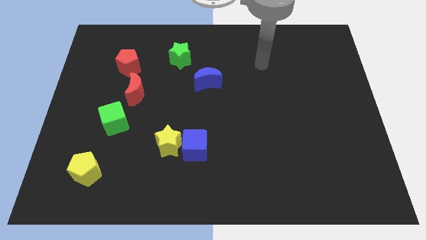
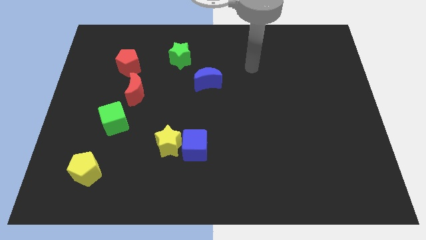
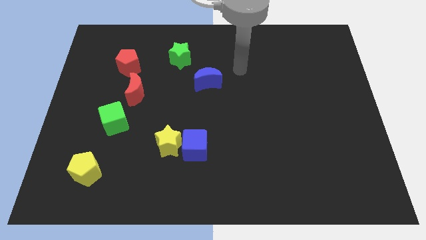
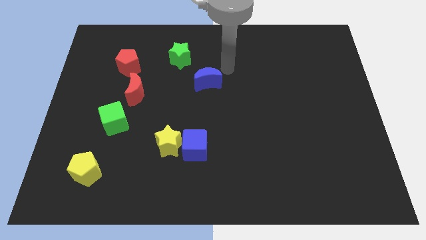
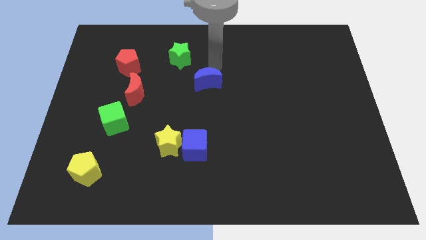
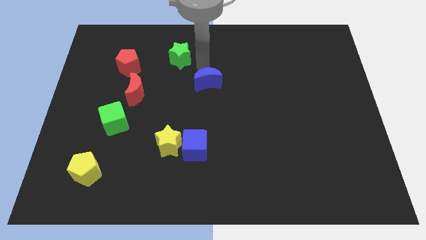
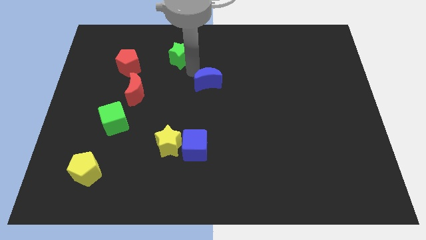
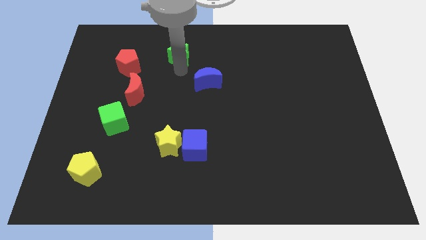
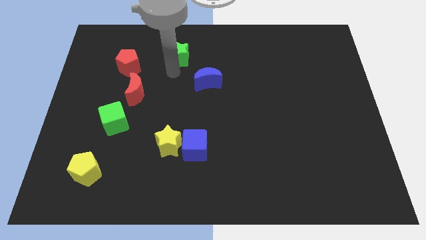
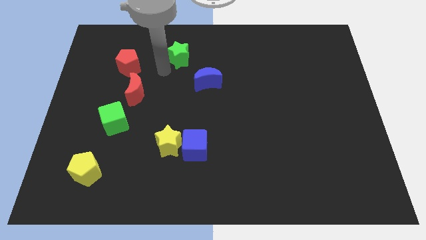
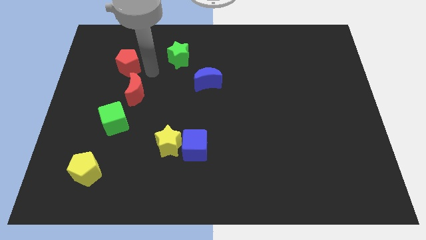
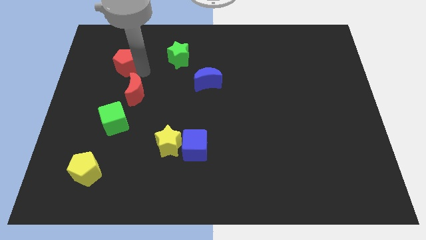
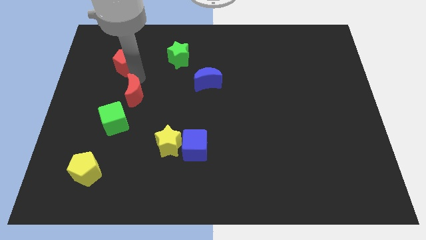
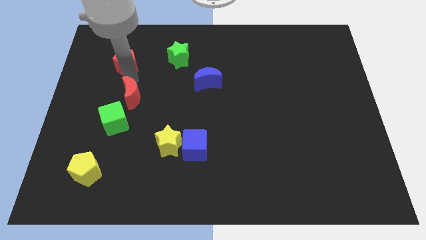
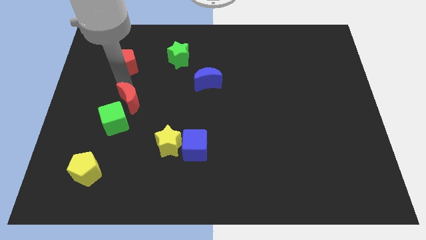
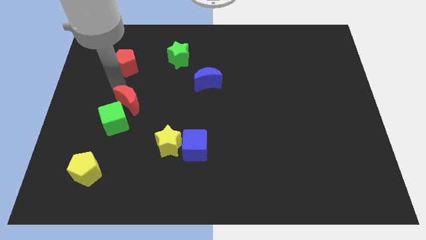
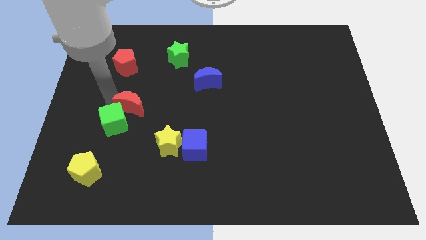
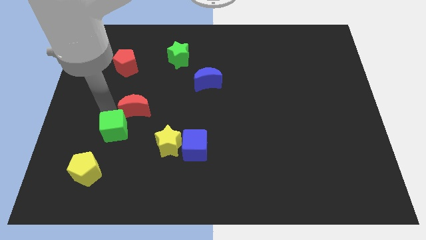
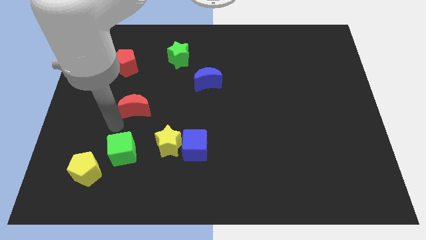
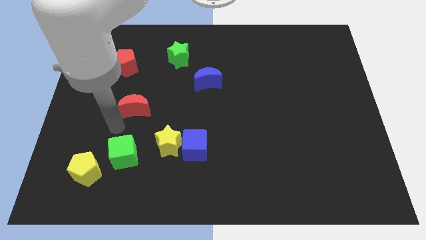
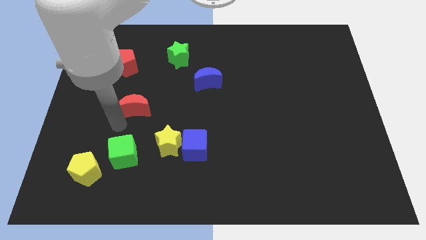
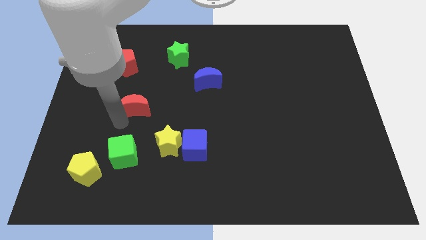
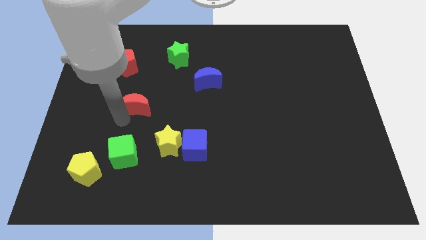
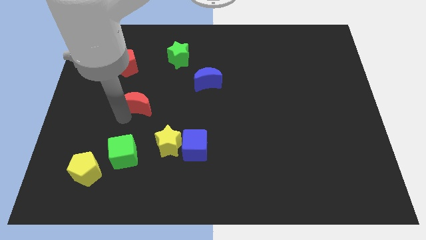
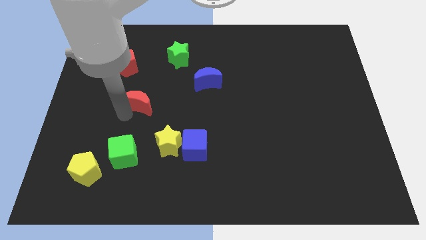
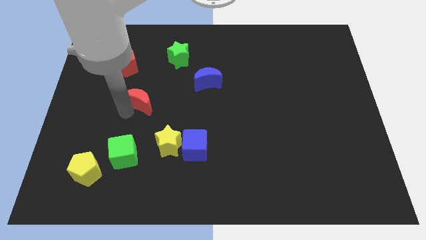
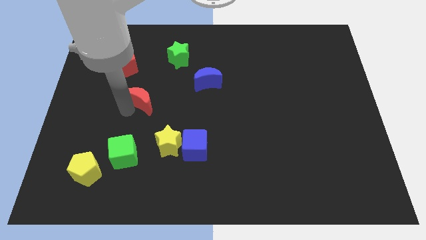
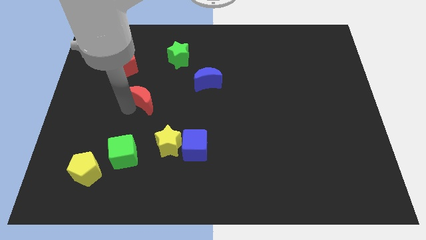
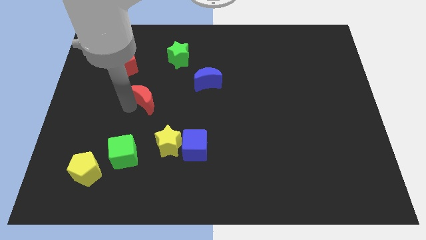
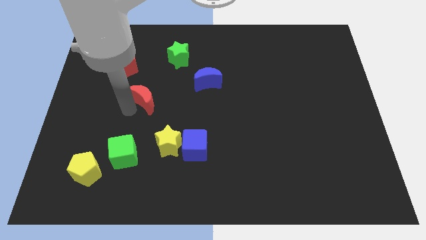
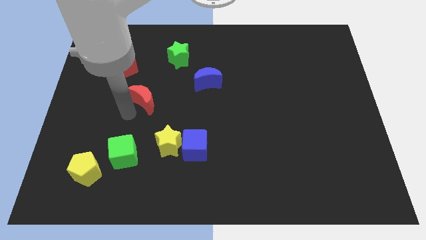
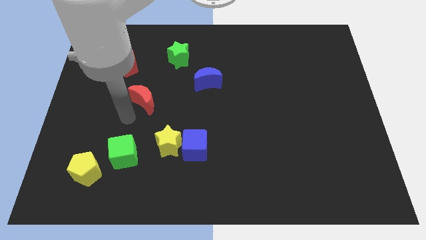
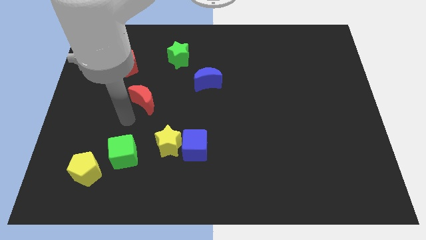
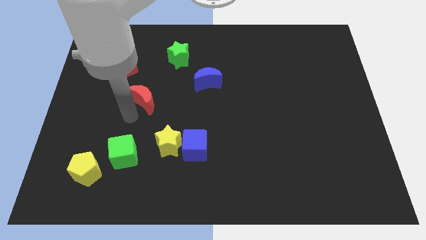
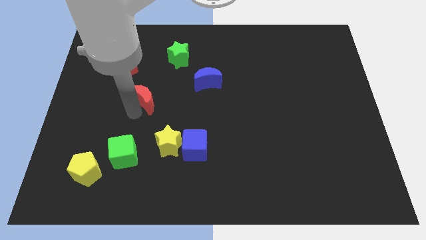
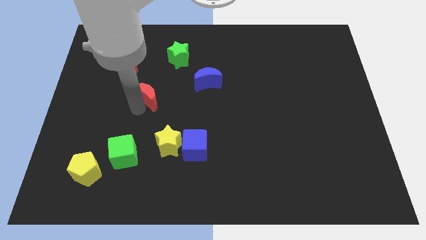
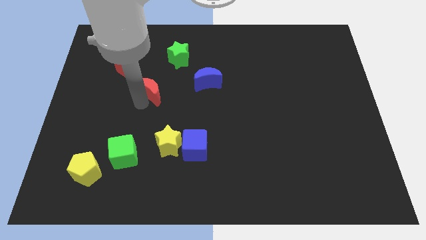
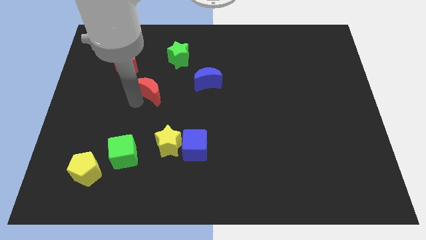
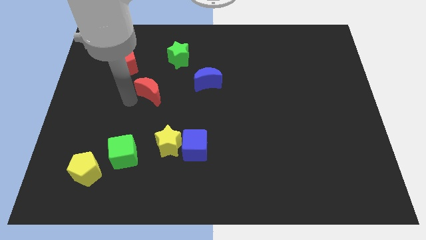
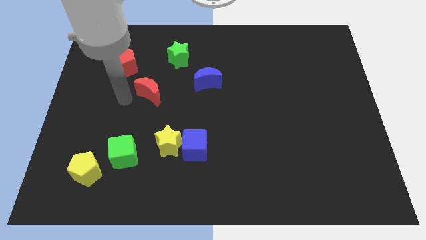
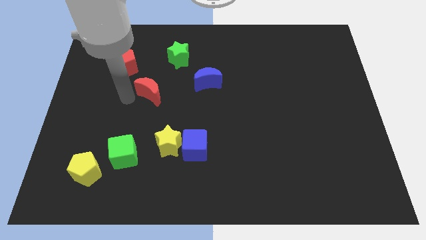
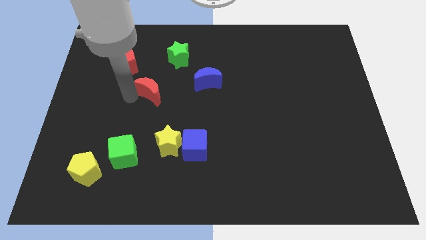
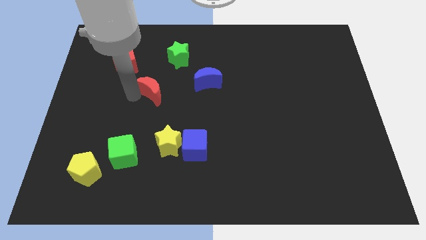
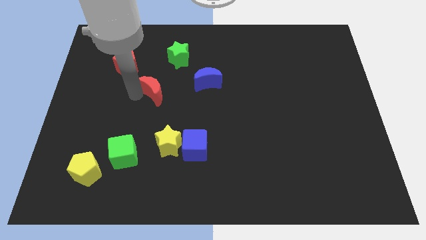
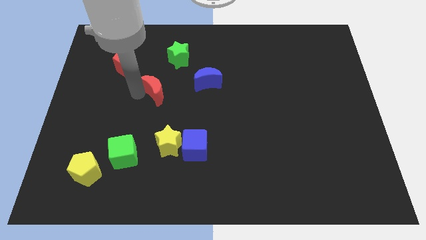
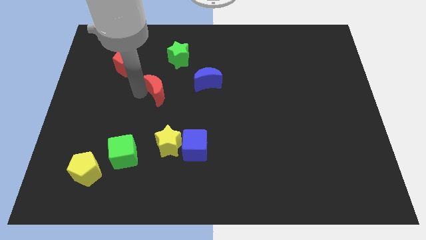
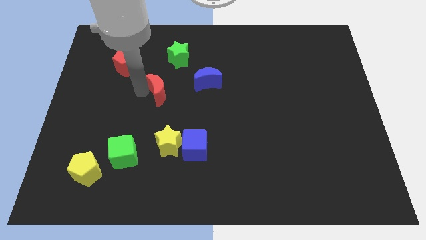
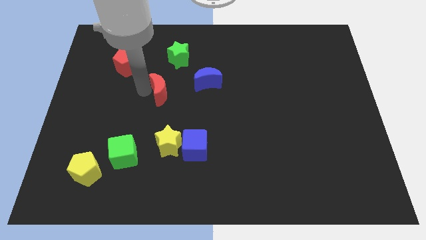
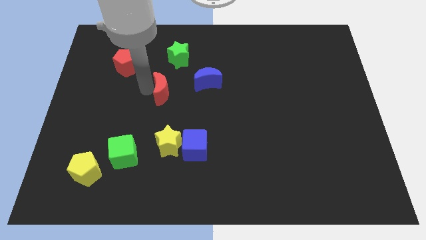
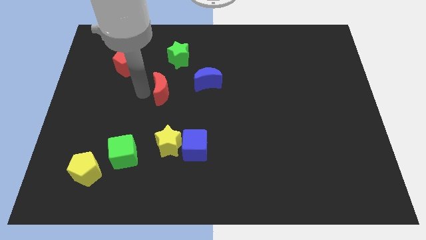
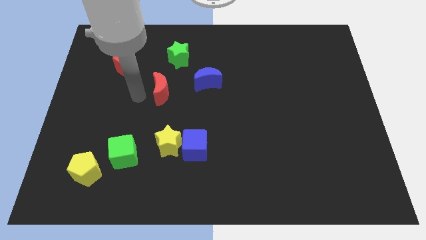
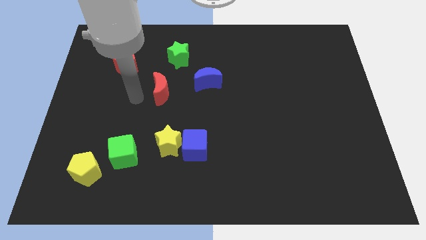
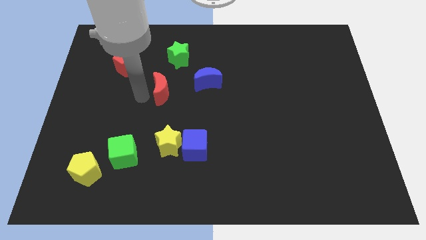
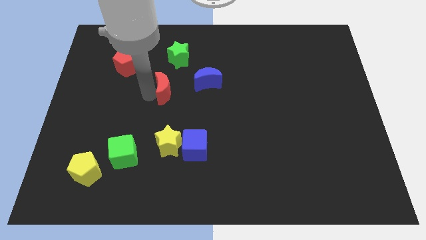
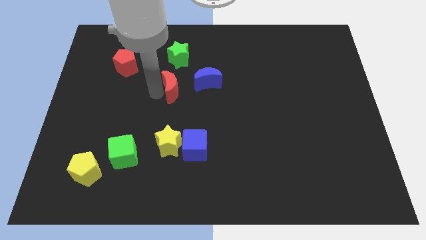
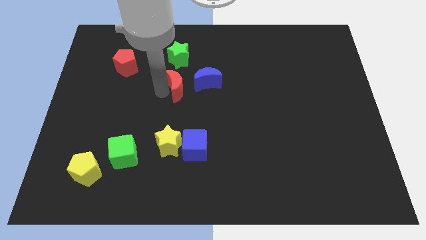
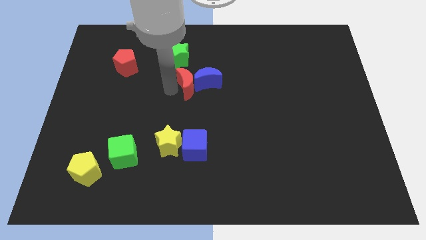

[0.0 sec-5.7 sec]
move the red moon next to the blue moon

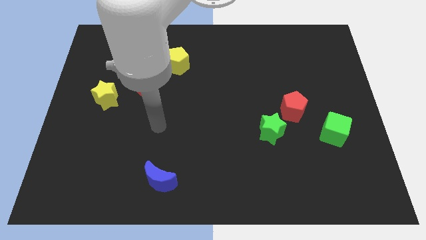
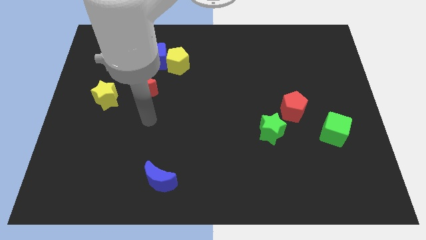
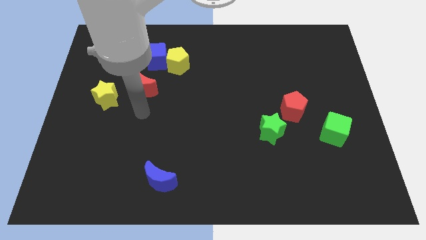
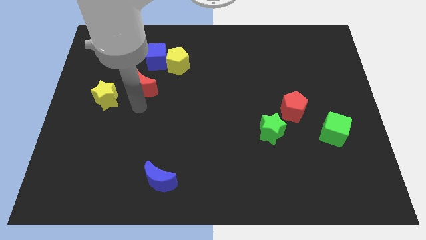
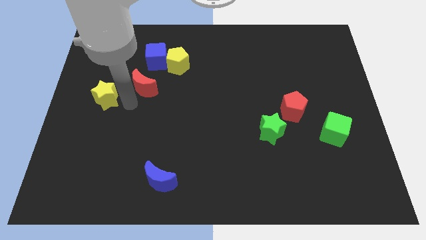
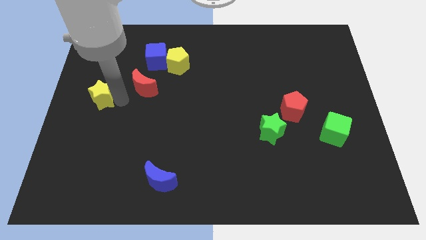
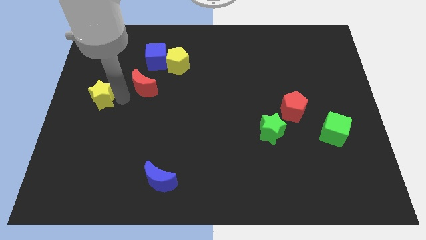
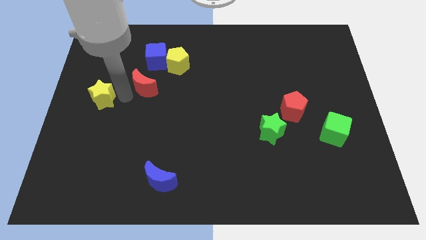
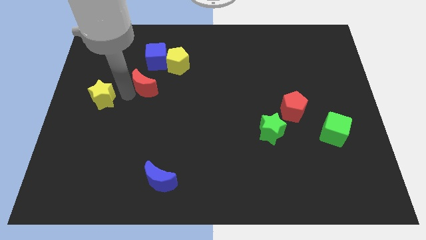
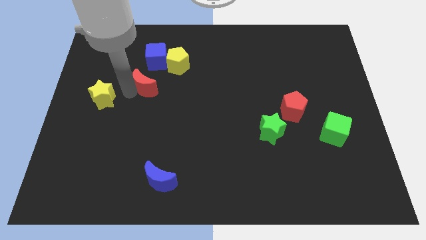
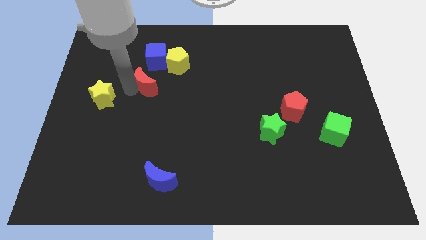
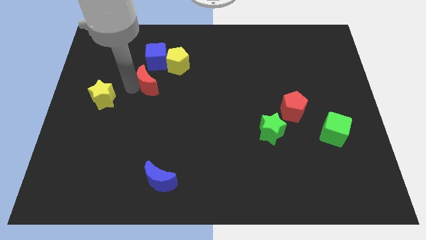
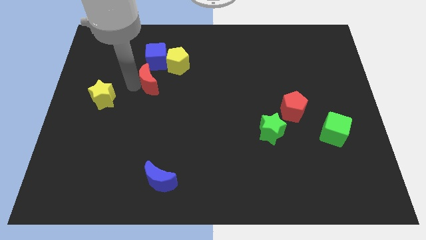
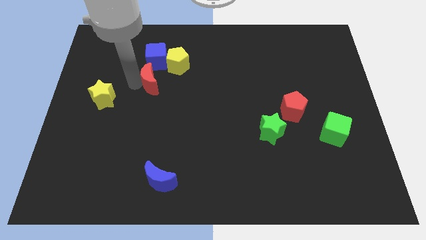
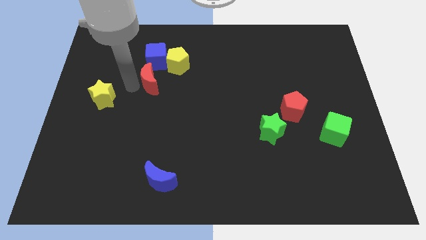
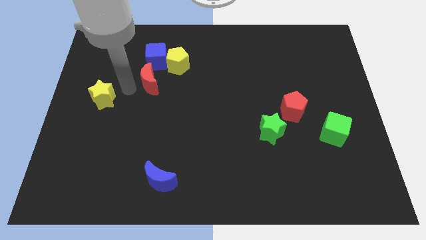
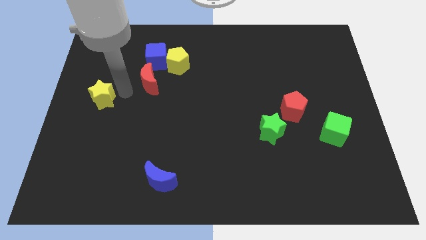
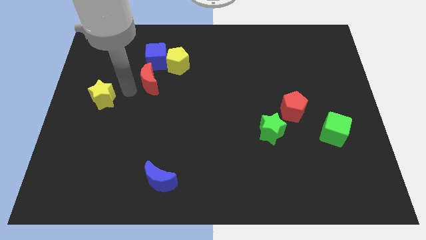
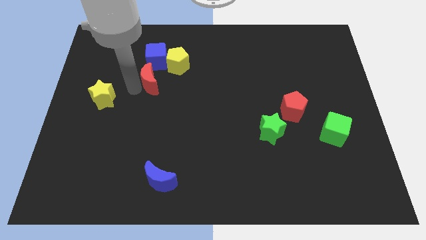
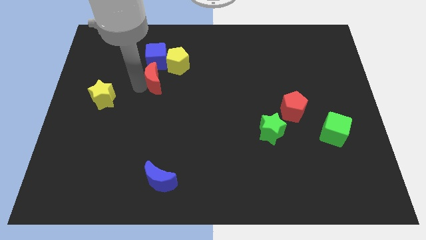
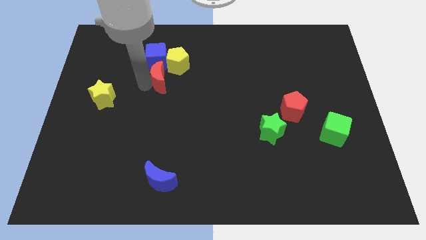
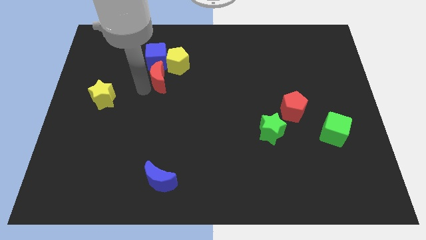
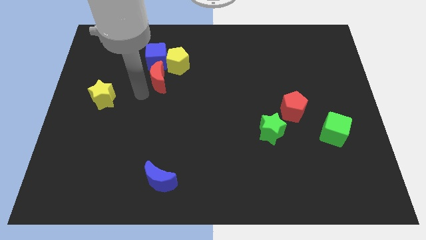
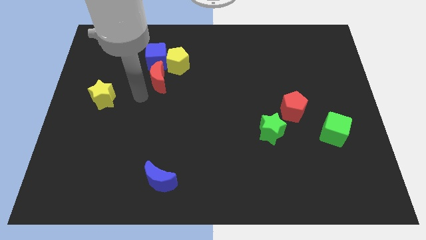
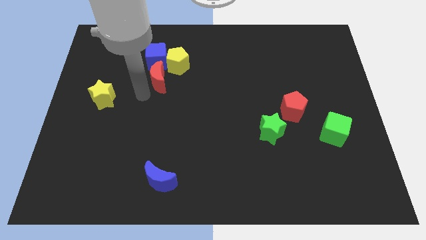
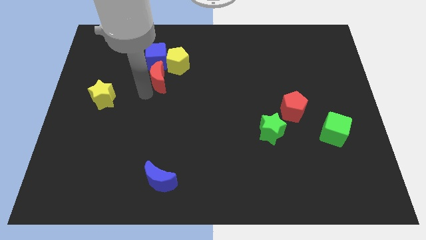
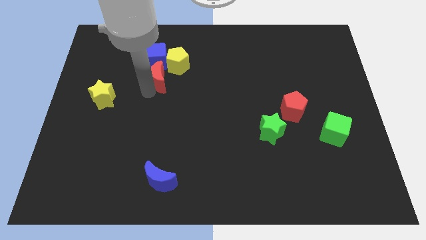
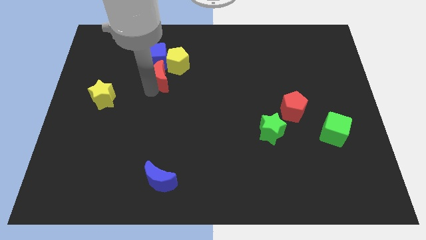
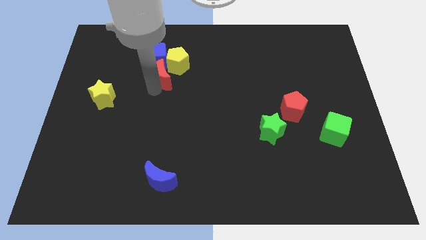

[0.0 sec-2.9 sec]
put the red moon towards the yellow pentagon
